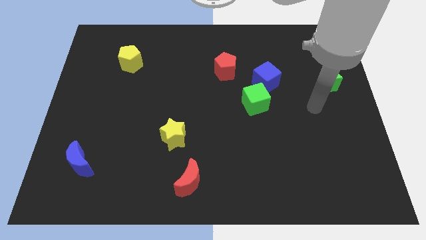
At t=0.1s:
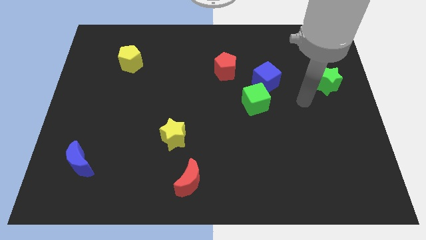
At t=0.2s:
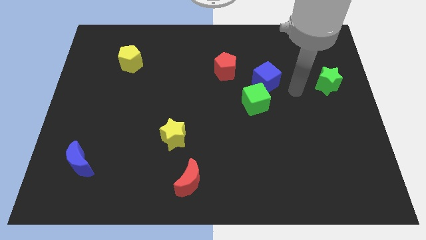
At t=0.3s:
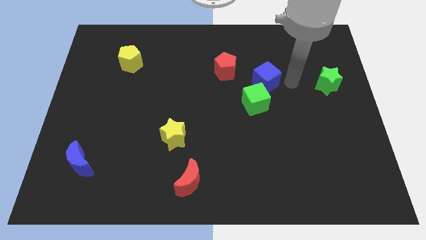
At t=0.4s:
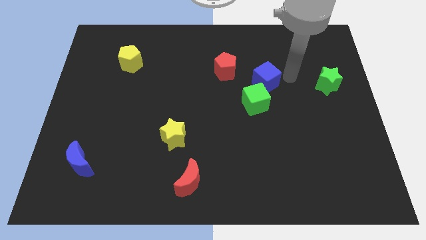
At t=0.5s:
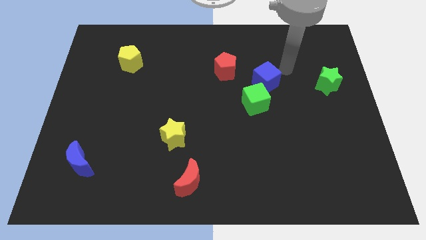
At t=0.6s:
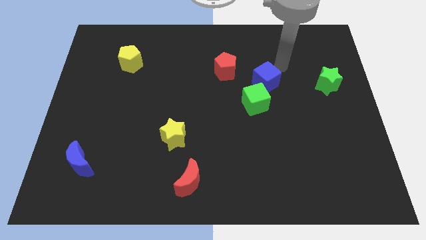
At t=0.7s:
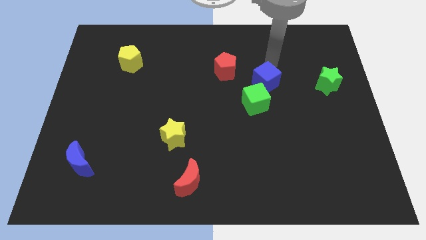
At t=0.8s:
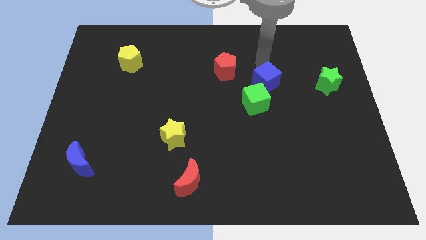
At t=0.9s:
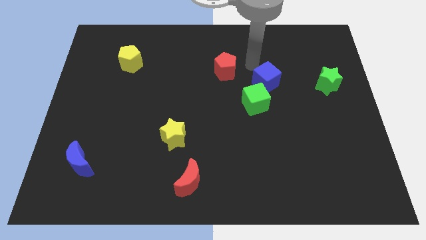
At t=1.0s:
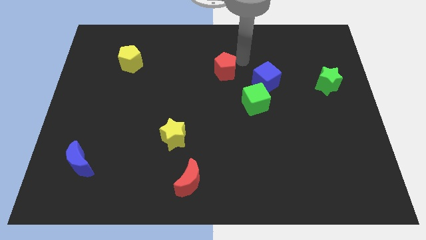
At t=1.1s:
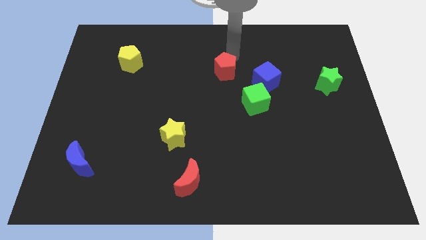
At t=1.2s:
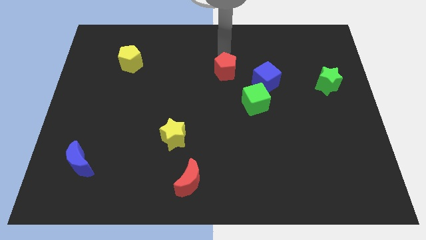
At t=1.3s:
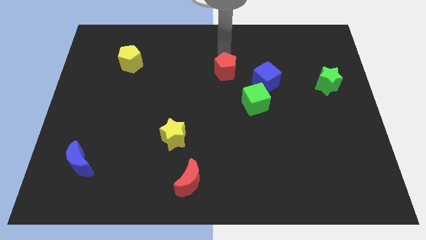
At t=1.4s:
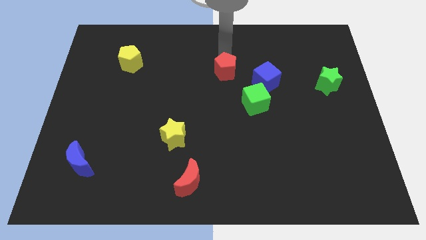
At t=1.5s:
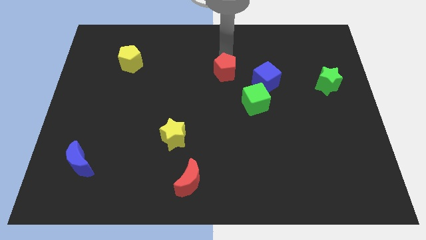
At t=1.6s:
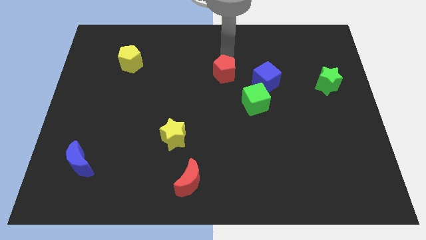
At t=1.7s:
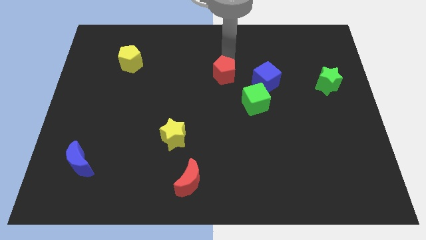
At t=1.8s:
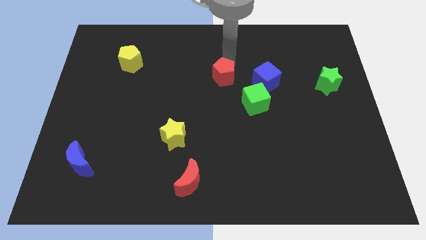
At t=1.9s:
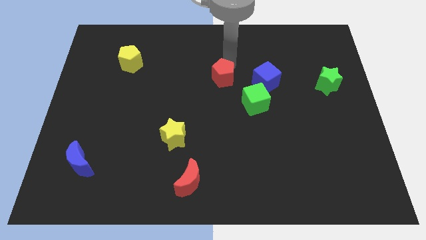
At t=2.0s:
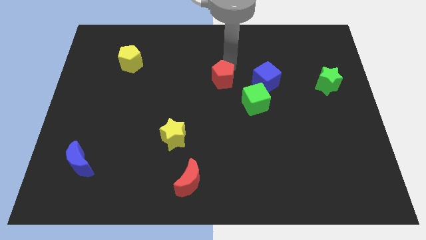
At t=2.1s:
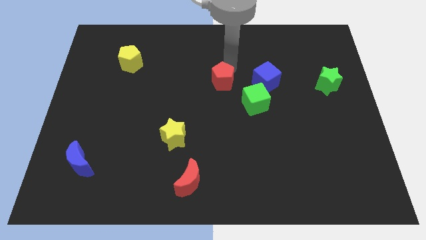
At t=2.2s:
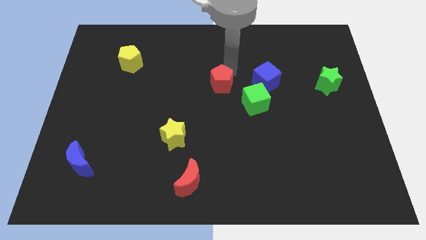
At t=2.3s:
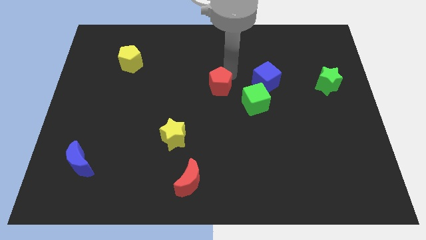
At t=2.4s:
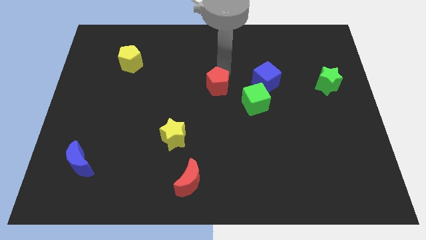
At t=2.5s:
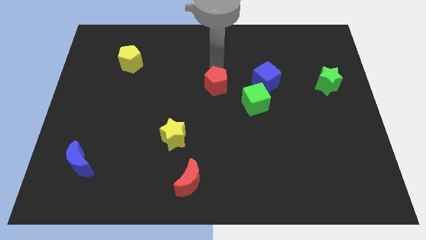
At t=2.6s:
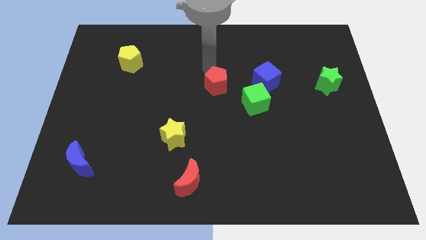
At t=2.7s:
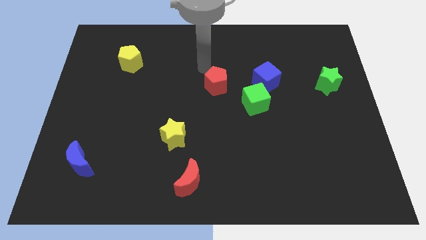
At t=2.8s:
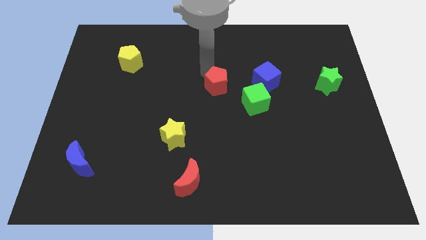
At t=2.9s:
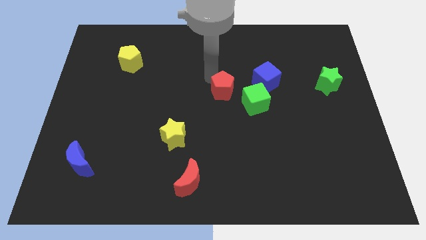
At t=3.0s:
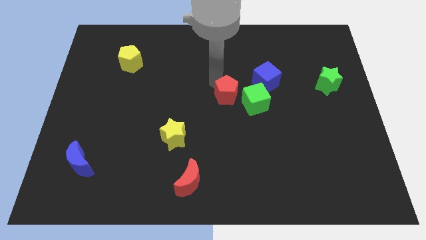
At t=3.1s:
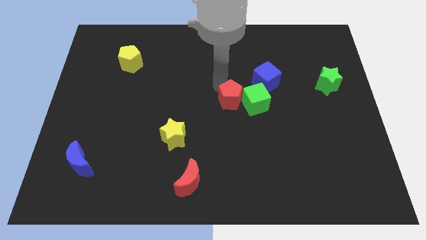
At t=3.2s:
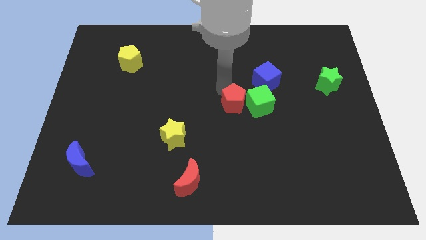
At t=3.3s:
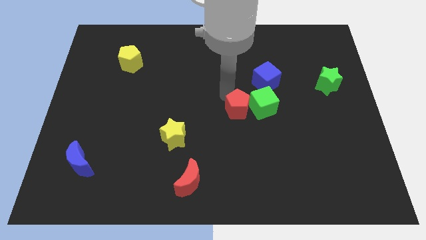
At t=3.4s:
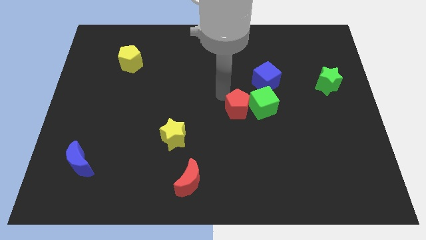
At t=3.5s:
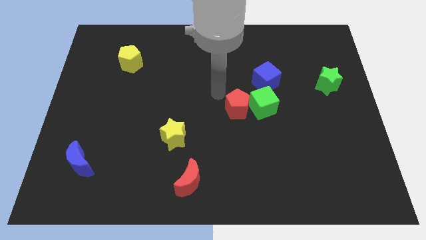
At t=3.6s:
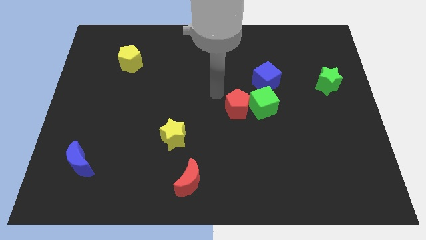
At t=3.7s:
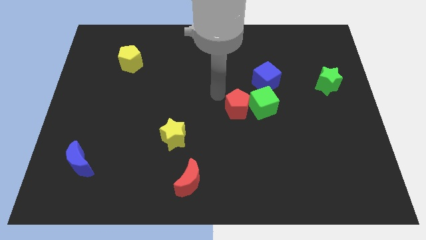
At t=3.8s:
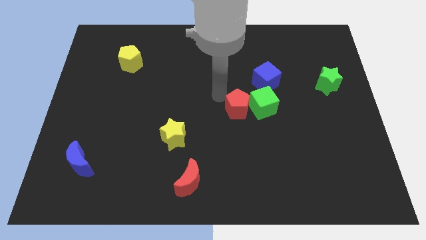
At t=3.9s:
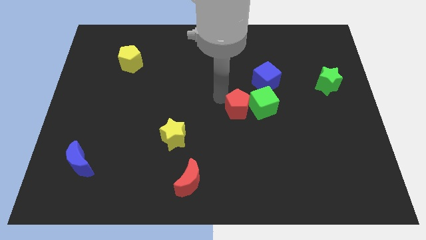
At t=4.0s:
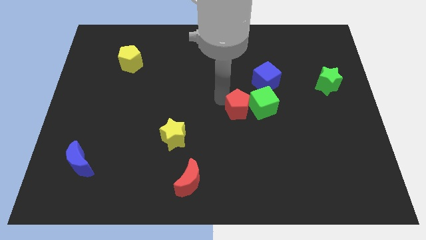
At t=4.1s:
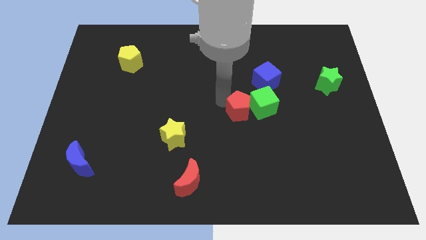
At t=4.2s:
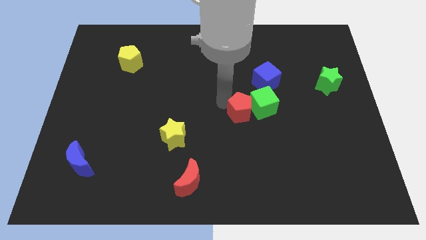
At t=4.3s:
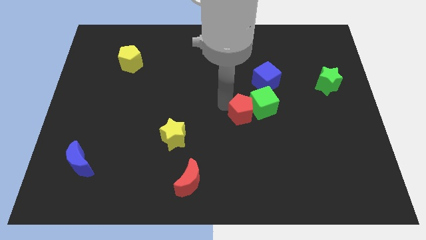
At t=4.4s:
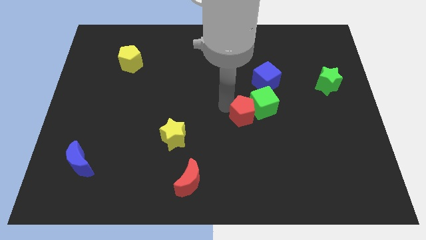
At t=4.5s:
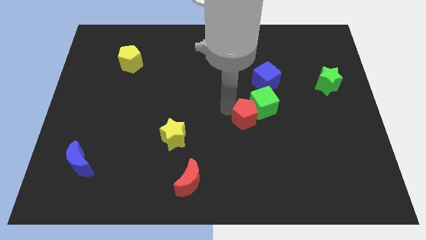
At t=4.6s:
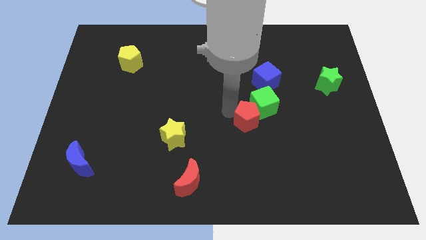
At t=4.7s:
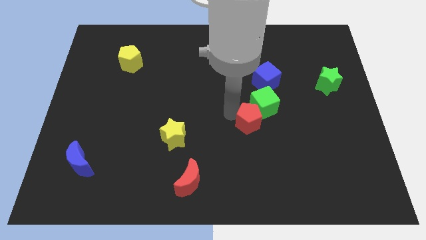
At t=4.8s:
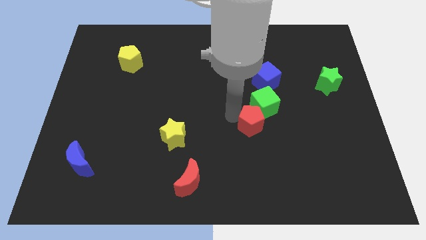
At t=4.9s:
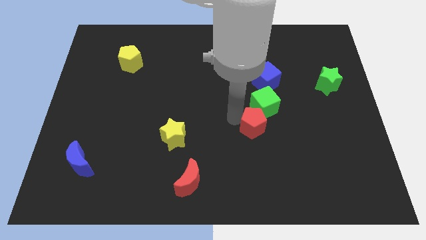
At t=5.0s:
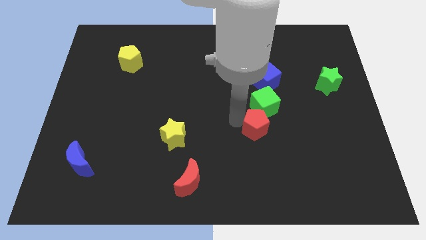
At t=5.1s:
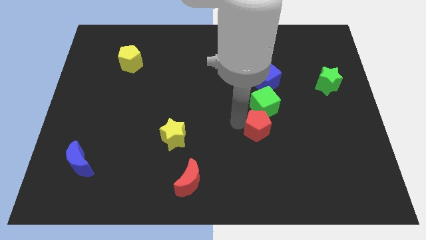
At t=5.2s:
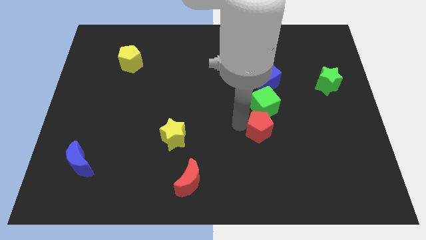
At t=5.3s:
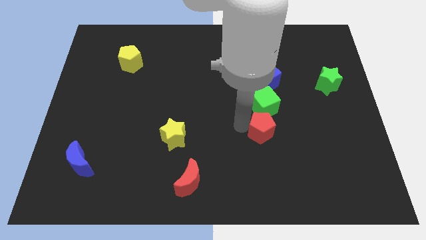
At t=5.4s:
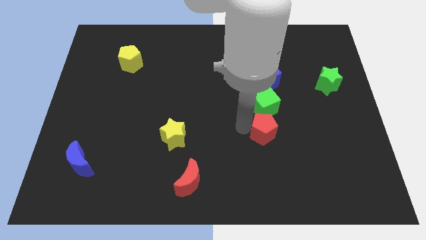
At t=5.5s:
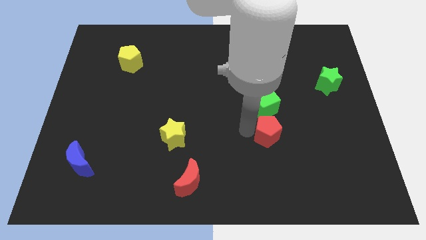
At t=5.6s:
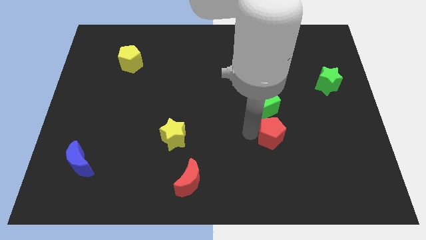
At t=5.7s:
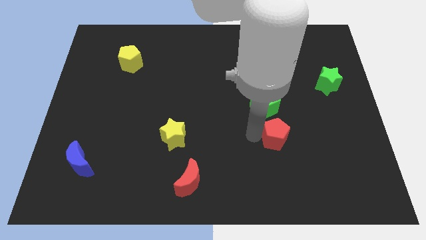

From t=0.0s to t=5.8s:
move the red pentagon down and to the right

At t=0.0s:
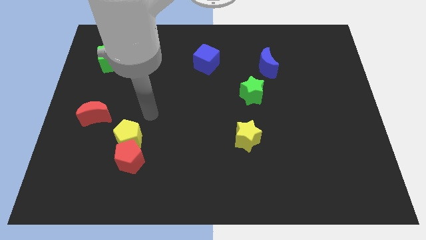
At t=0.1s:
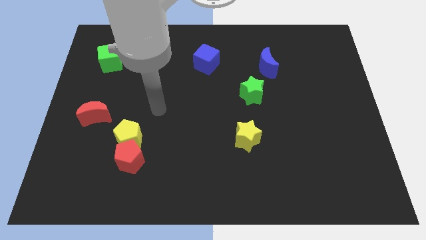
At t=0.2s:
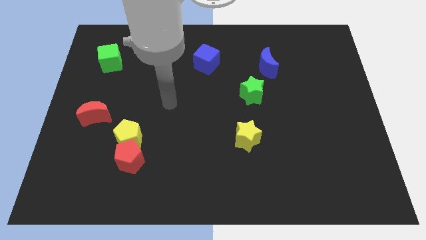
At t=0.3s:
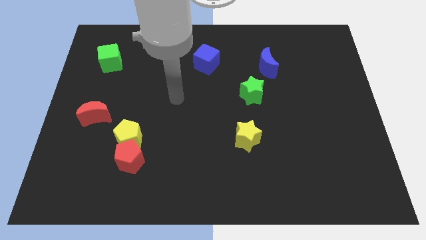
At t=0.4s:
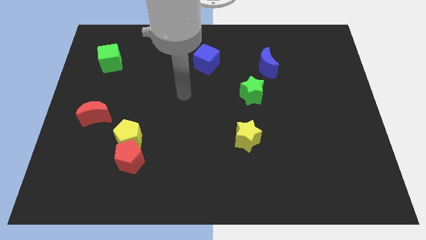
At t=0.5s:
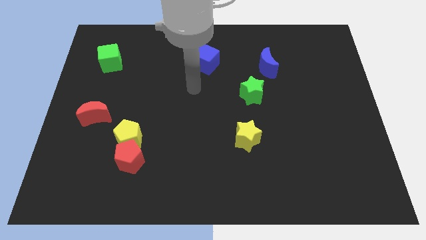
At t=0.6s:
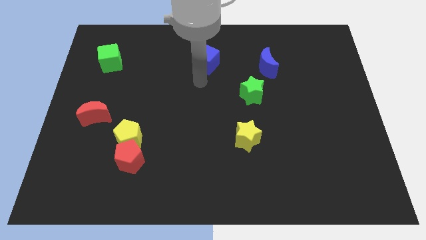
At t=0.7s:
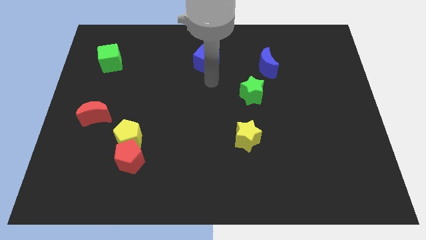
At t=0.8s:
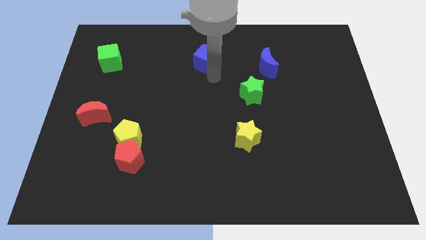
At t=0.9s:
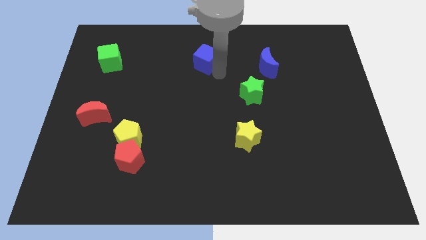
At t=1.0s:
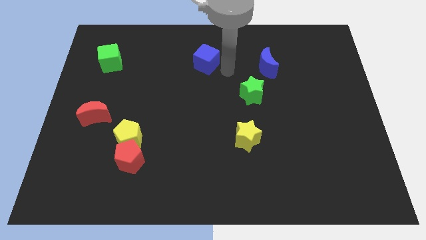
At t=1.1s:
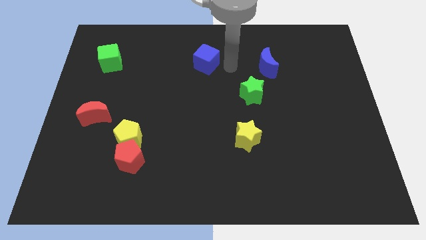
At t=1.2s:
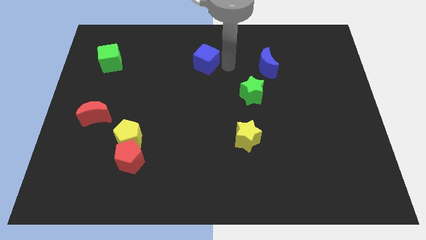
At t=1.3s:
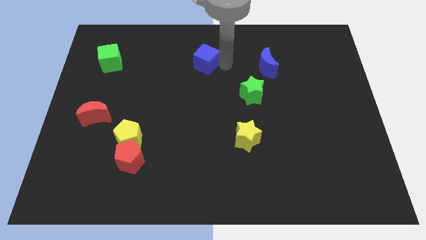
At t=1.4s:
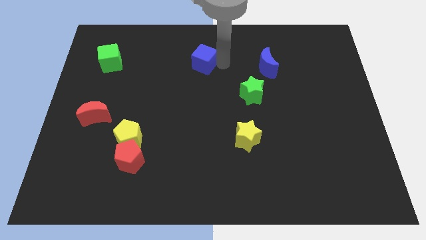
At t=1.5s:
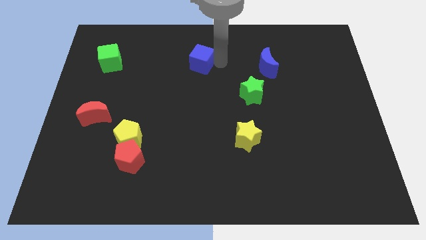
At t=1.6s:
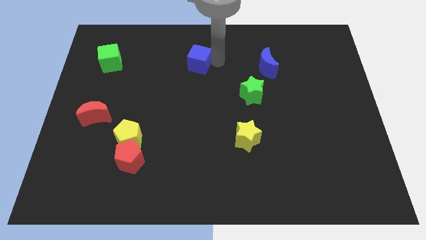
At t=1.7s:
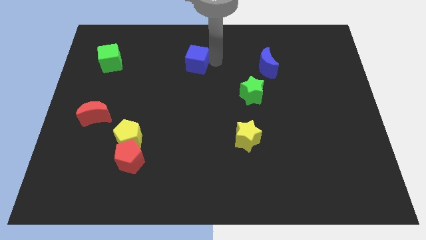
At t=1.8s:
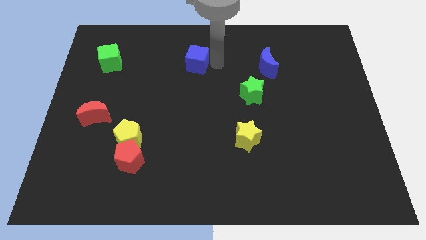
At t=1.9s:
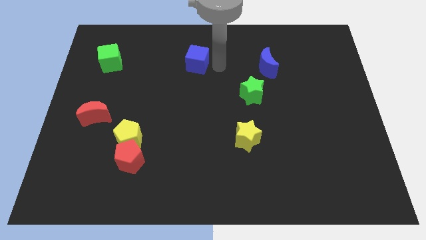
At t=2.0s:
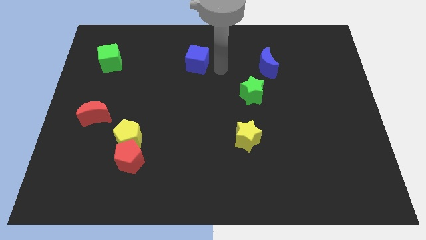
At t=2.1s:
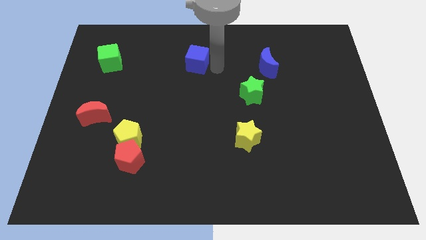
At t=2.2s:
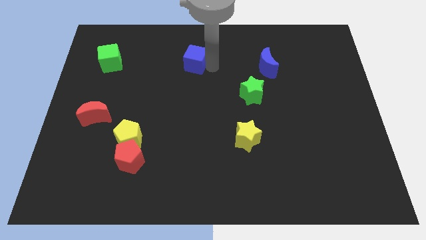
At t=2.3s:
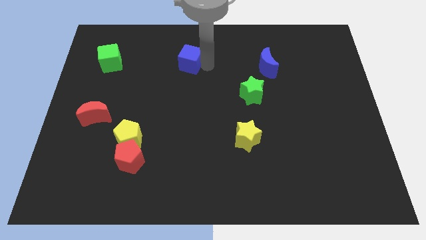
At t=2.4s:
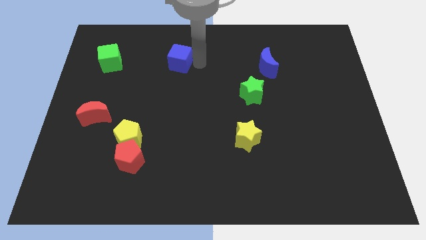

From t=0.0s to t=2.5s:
push the blue cube left slightly
